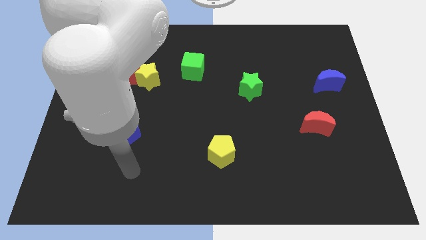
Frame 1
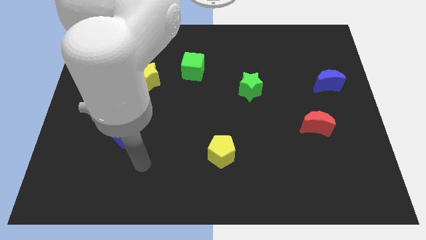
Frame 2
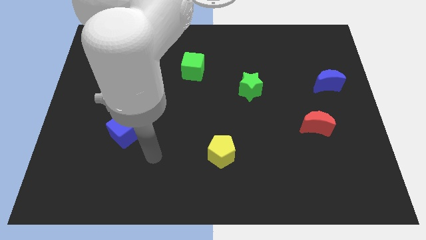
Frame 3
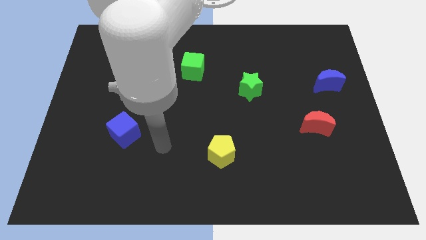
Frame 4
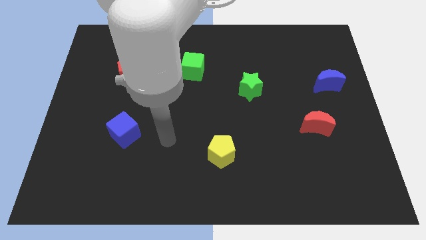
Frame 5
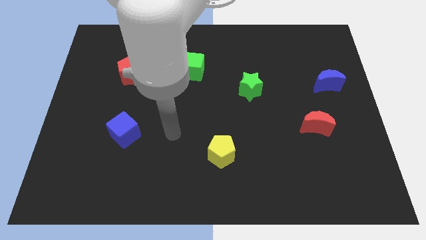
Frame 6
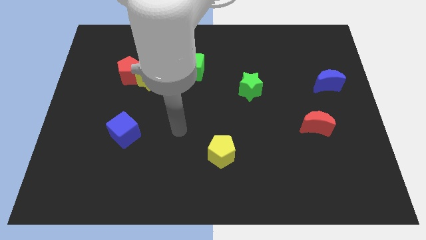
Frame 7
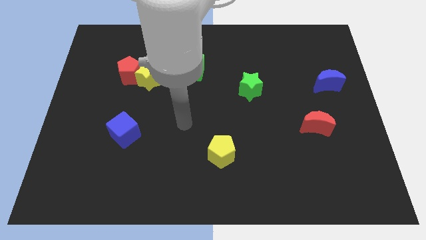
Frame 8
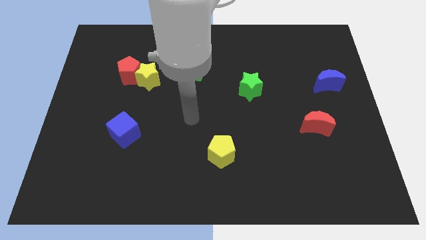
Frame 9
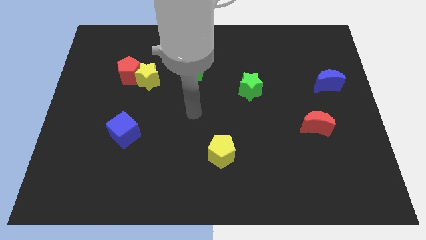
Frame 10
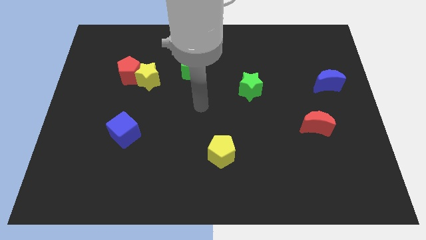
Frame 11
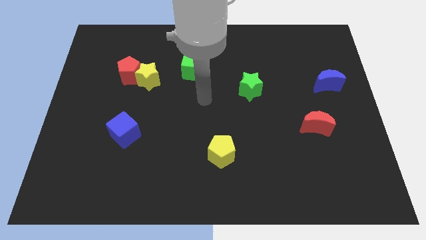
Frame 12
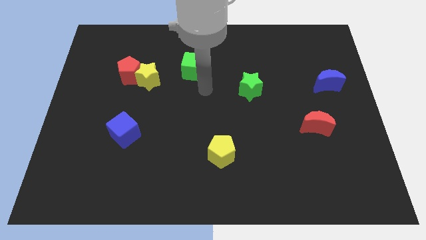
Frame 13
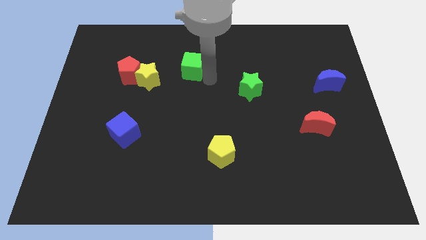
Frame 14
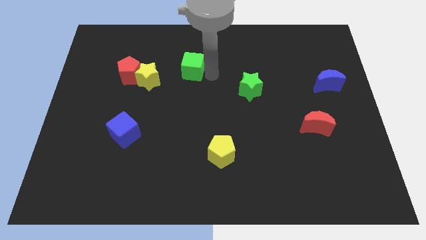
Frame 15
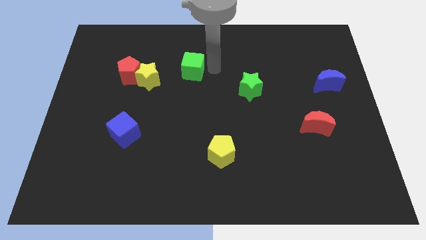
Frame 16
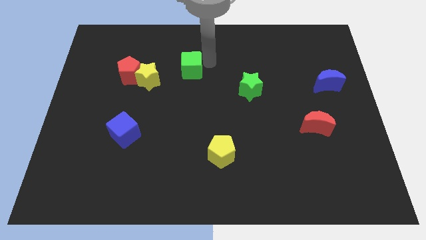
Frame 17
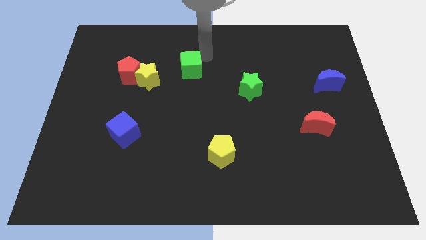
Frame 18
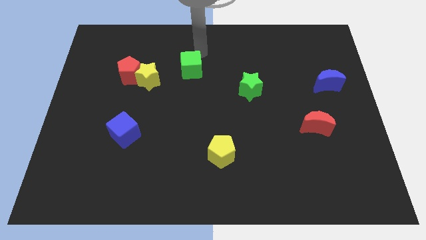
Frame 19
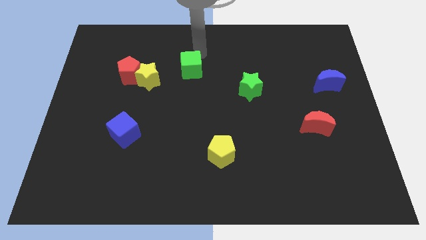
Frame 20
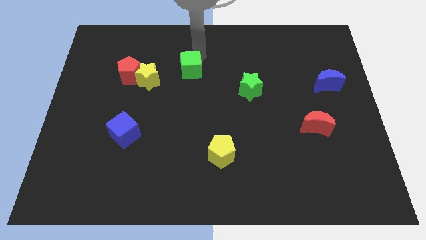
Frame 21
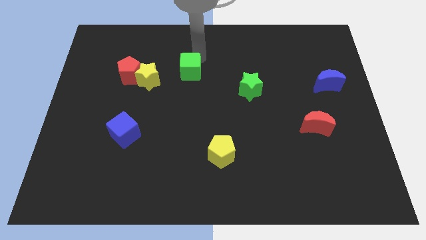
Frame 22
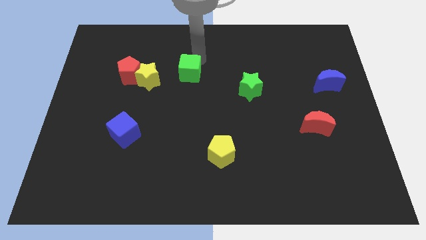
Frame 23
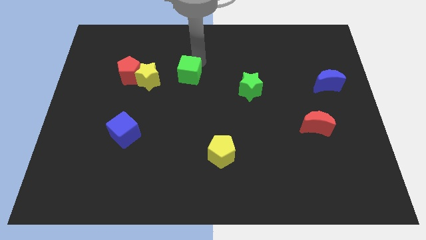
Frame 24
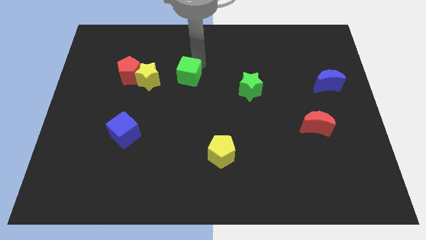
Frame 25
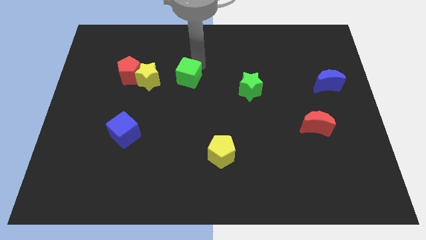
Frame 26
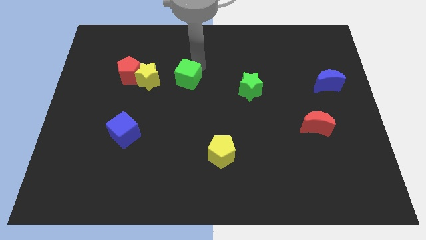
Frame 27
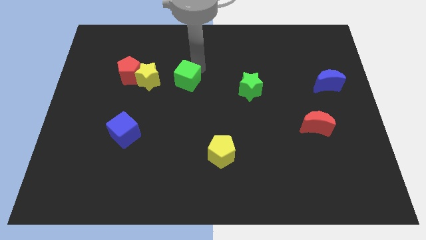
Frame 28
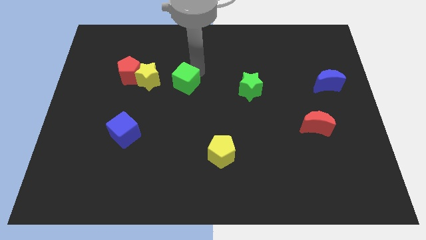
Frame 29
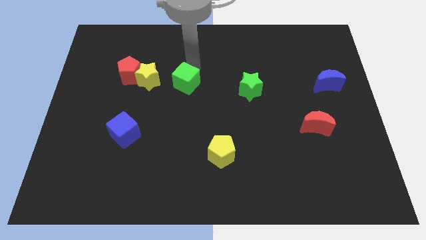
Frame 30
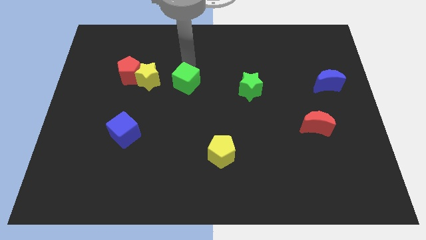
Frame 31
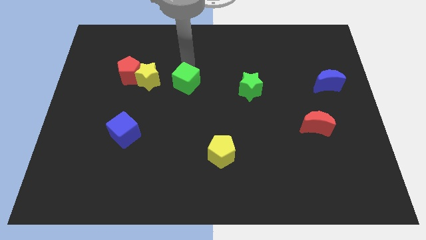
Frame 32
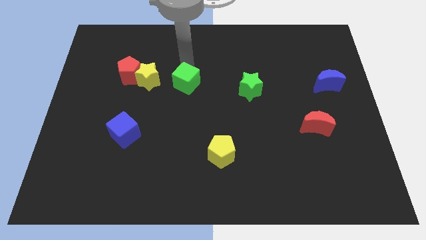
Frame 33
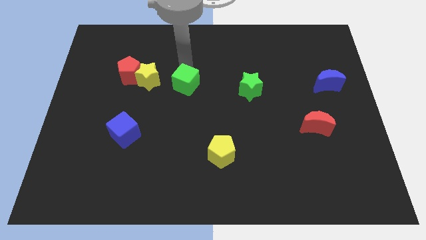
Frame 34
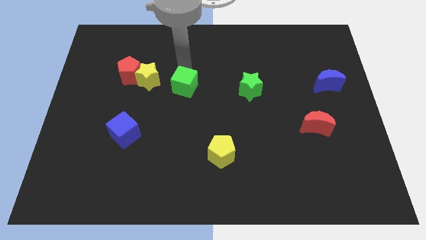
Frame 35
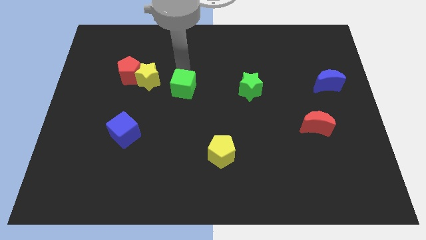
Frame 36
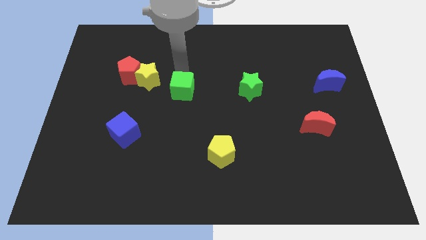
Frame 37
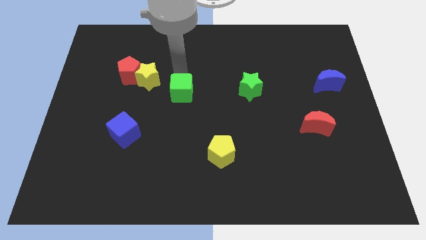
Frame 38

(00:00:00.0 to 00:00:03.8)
move the green cube down slightly

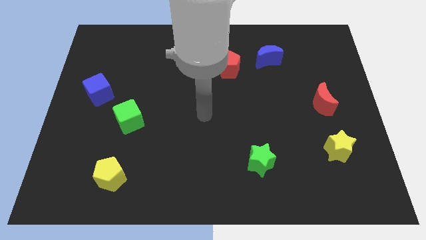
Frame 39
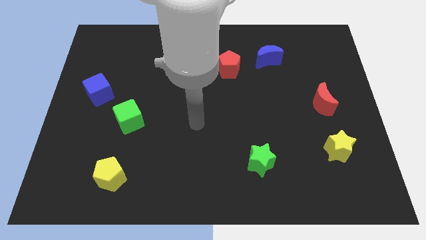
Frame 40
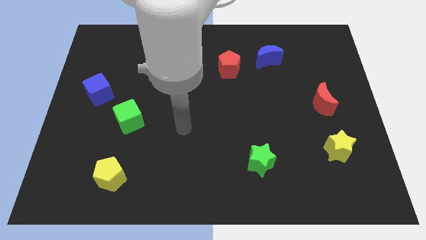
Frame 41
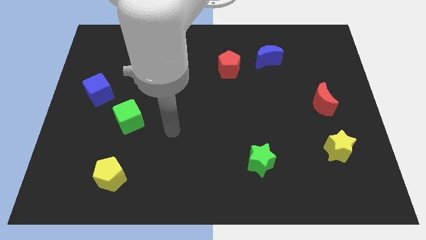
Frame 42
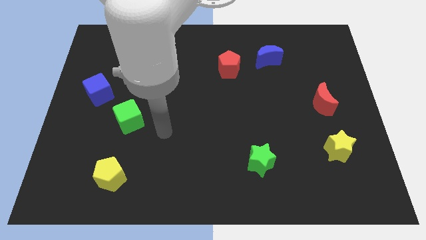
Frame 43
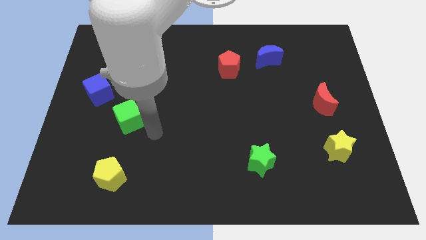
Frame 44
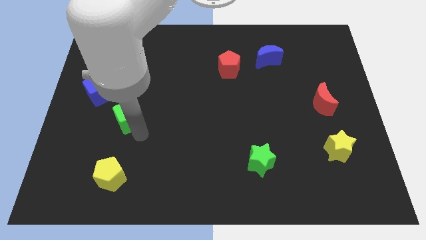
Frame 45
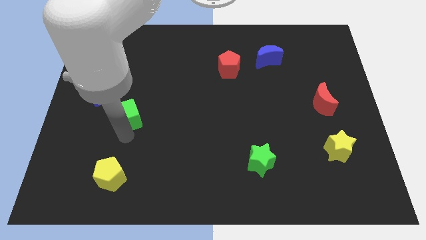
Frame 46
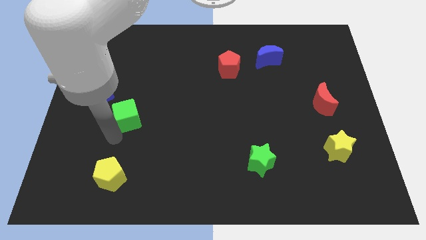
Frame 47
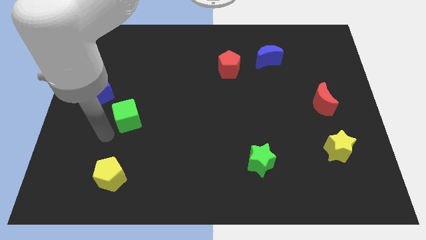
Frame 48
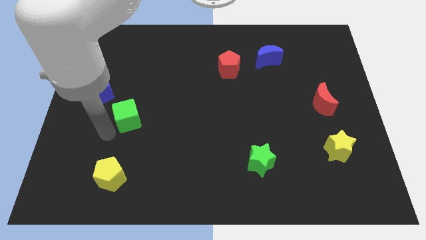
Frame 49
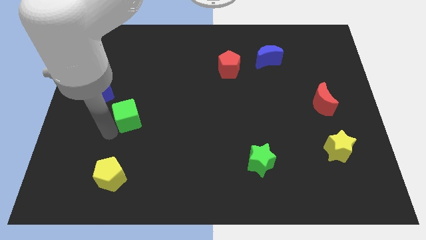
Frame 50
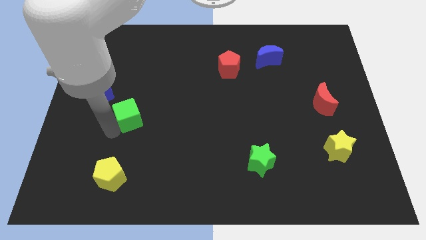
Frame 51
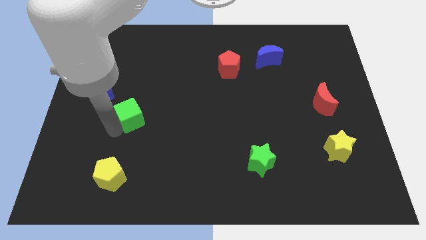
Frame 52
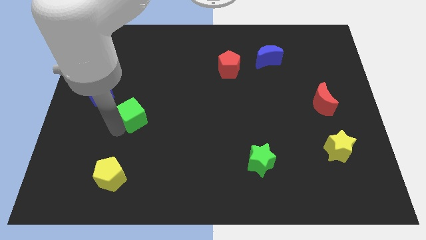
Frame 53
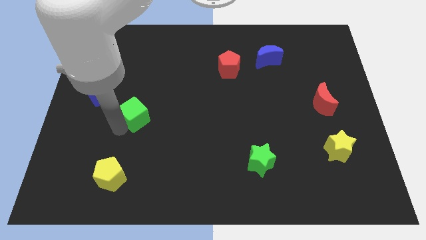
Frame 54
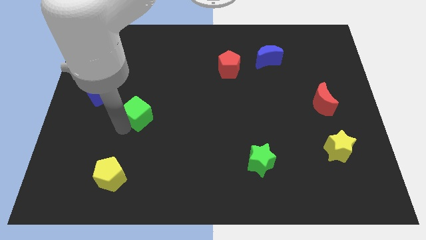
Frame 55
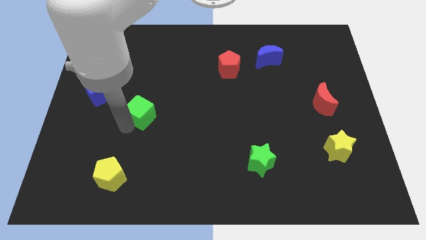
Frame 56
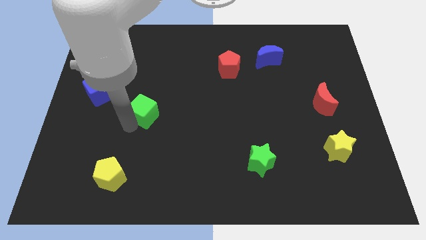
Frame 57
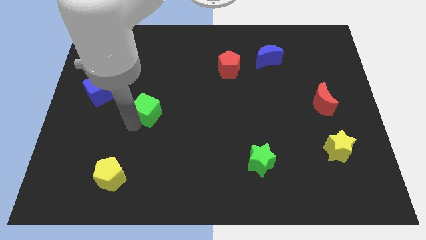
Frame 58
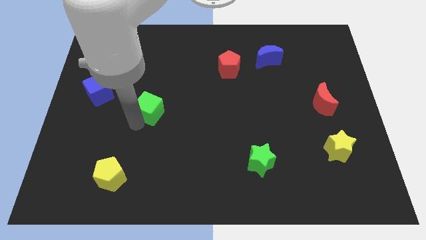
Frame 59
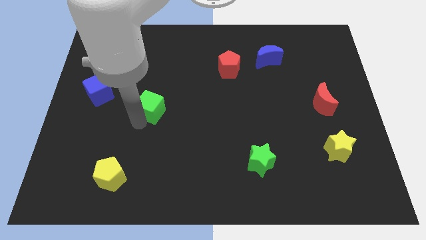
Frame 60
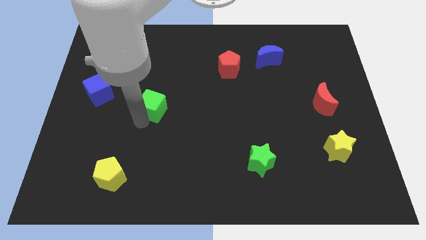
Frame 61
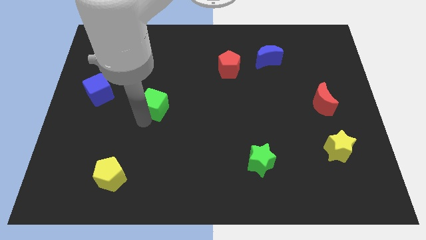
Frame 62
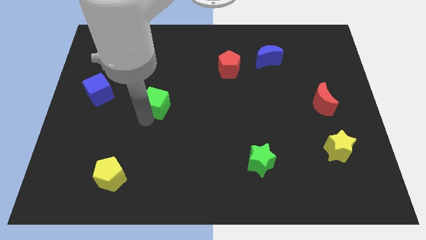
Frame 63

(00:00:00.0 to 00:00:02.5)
slightly move the green cube upwards and then to the right

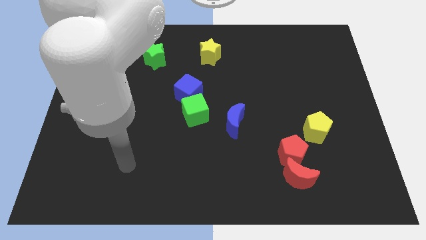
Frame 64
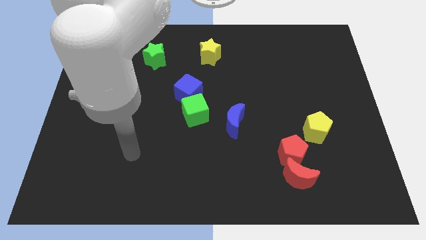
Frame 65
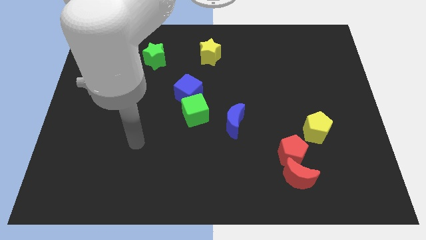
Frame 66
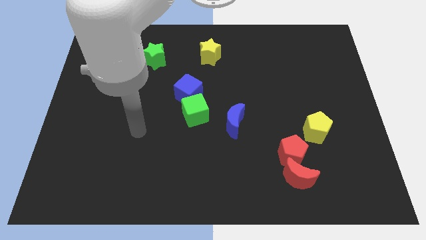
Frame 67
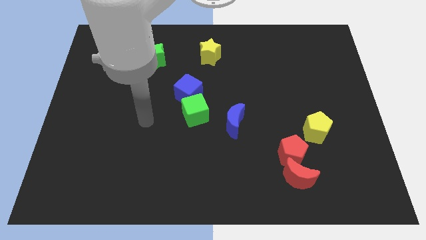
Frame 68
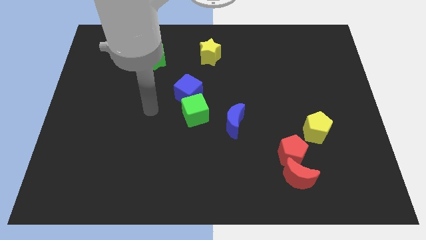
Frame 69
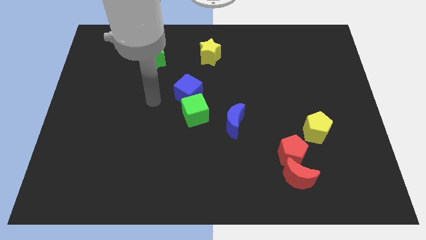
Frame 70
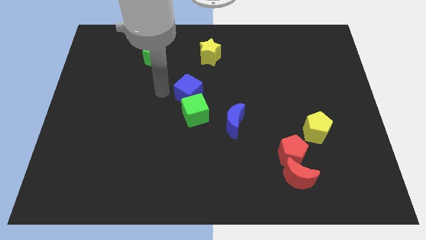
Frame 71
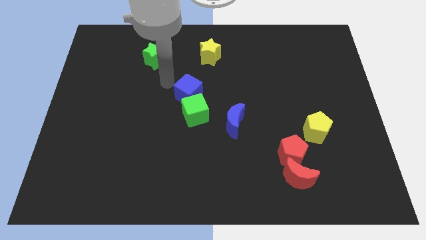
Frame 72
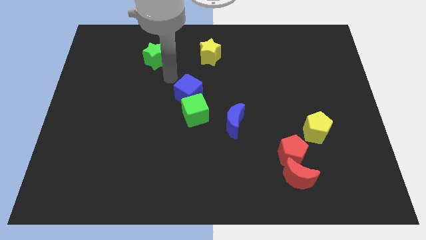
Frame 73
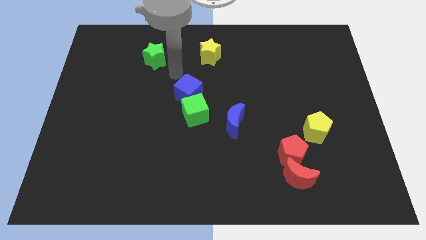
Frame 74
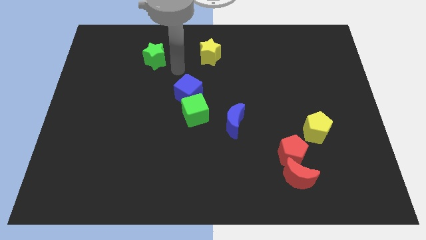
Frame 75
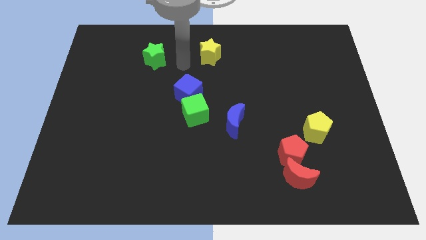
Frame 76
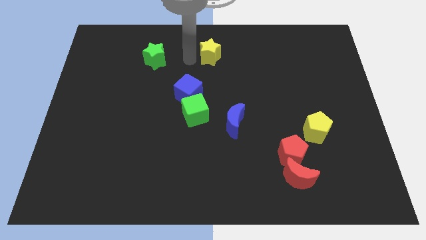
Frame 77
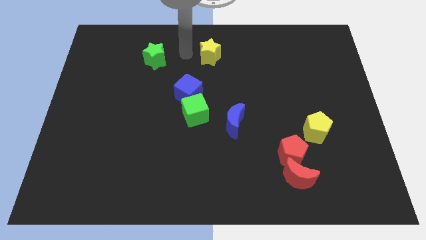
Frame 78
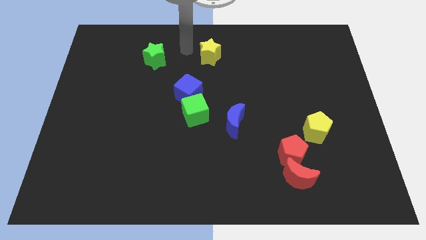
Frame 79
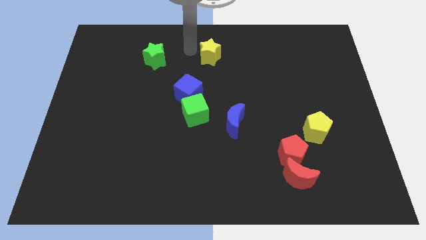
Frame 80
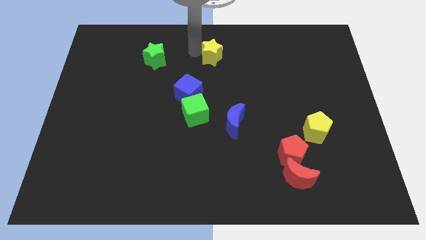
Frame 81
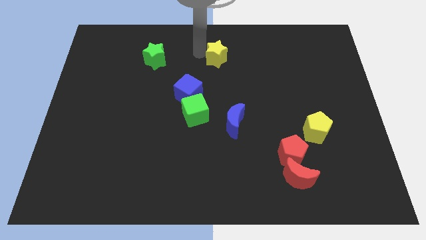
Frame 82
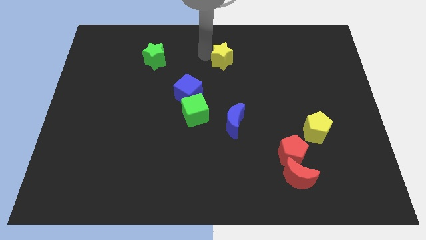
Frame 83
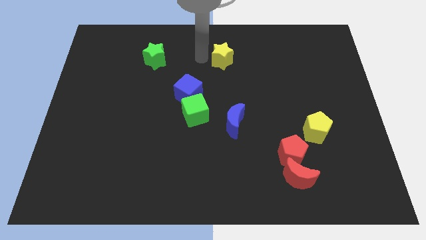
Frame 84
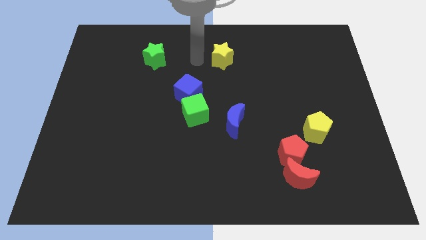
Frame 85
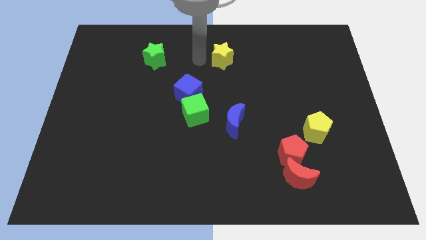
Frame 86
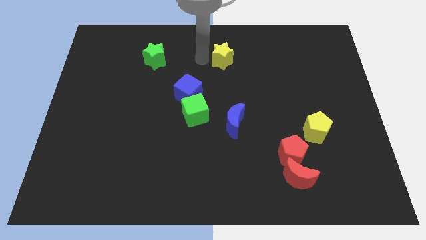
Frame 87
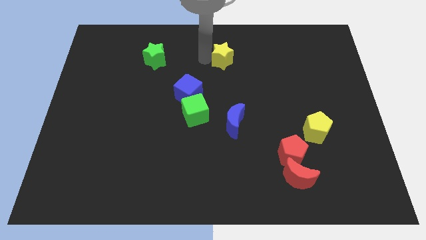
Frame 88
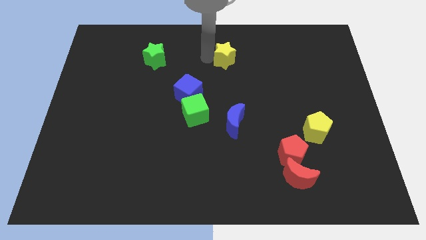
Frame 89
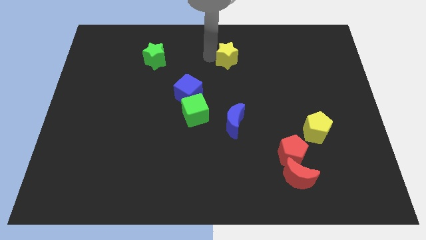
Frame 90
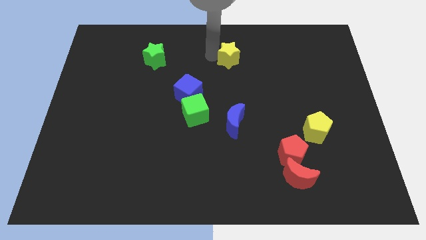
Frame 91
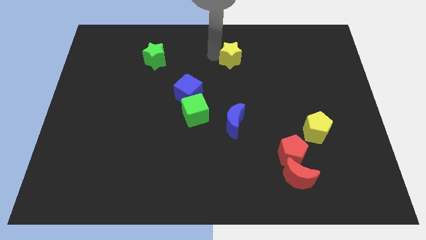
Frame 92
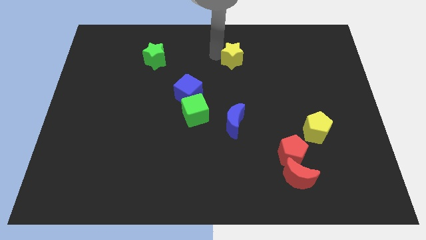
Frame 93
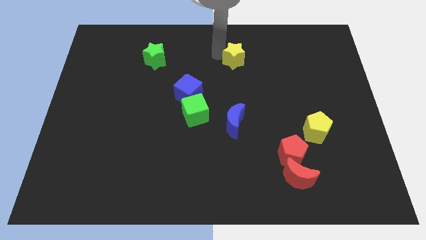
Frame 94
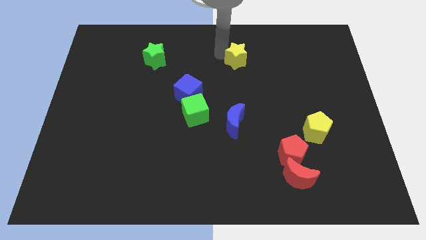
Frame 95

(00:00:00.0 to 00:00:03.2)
move the yellow star to the right a little
